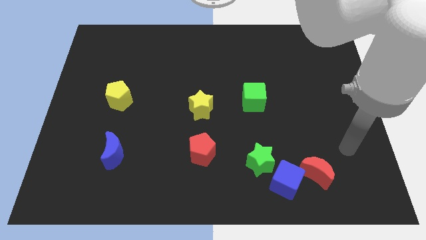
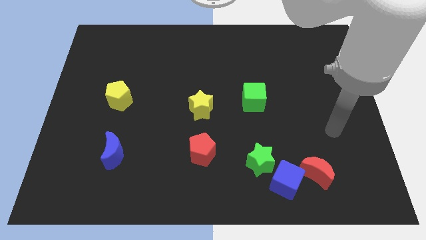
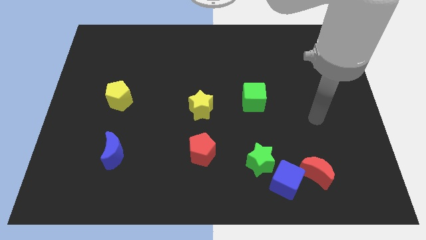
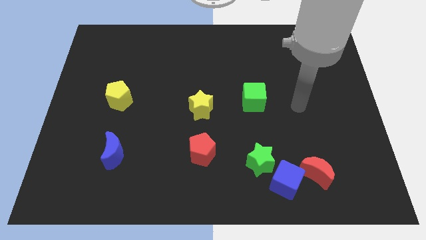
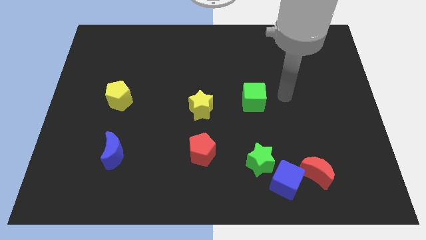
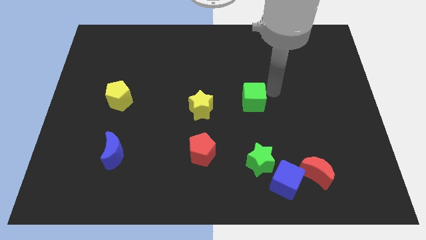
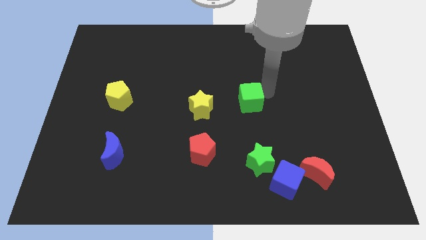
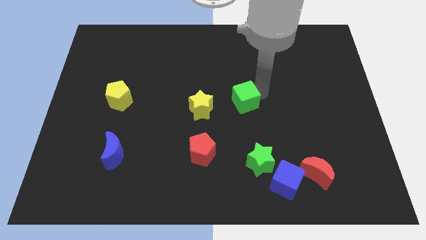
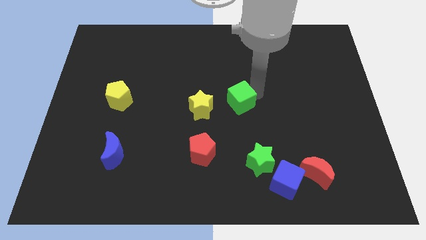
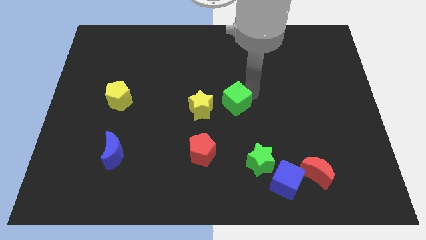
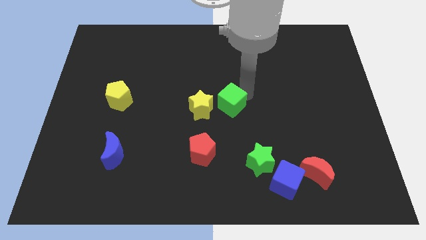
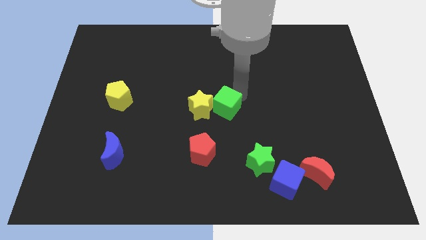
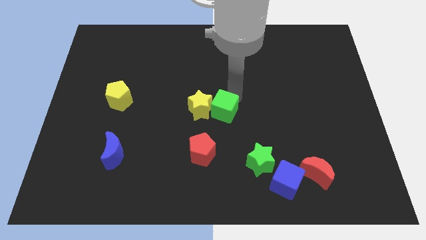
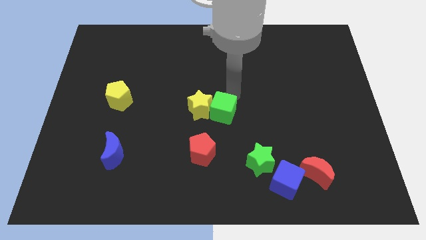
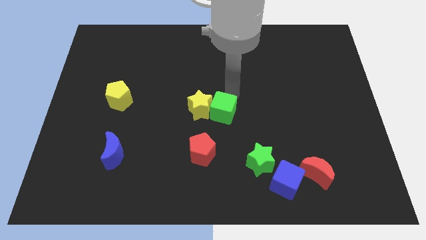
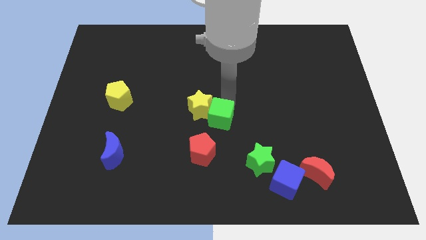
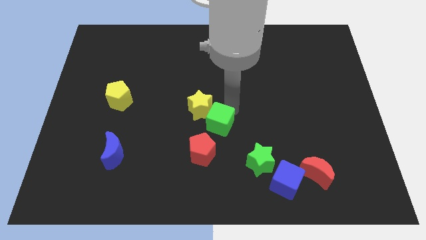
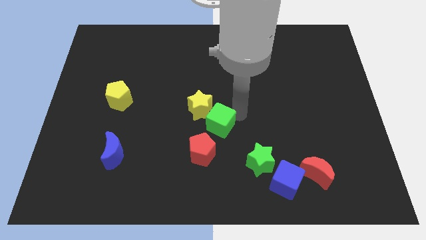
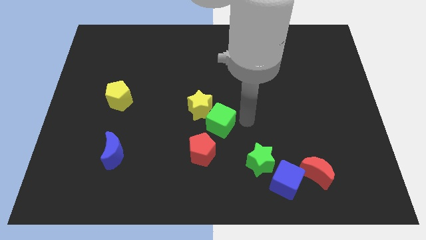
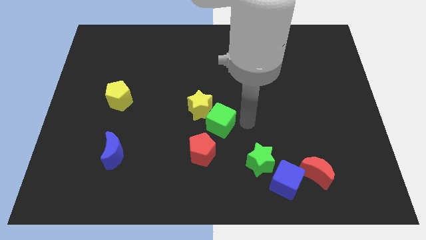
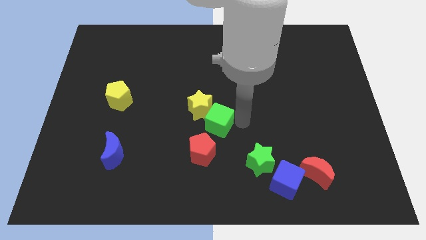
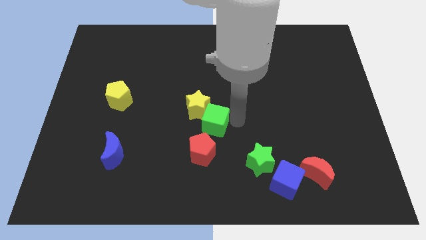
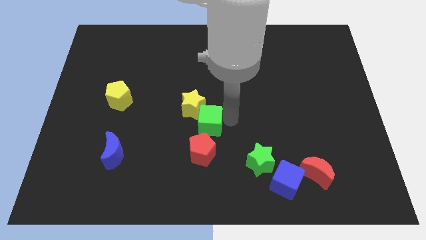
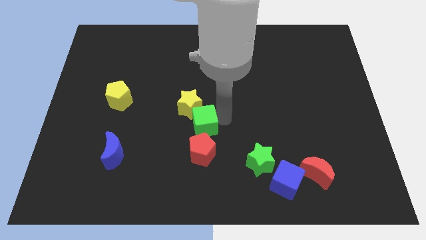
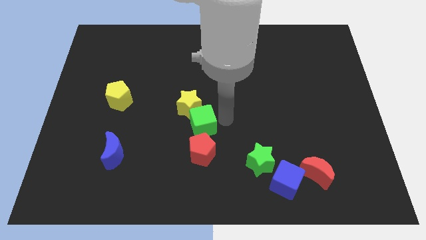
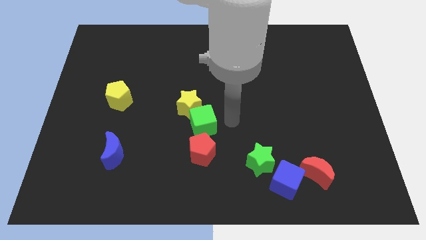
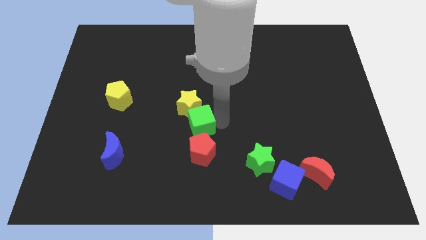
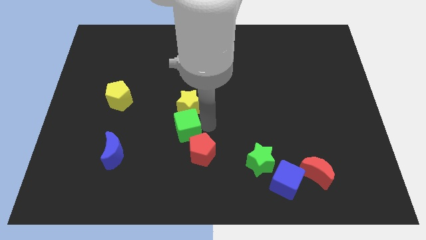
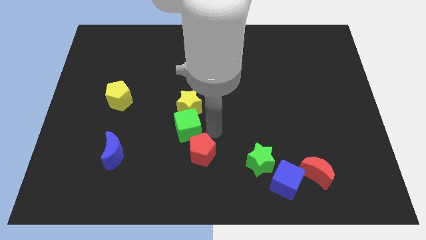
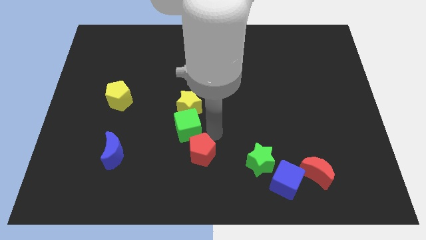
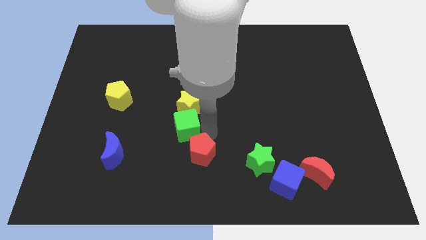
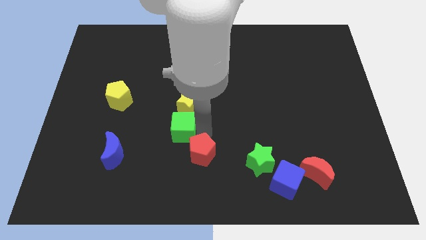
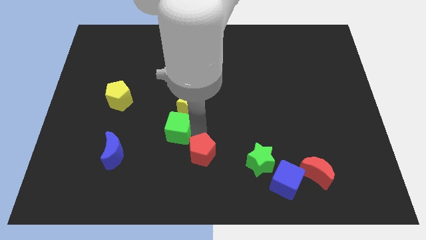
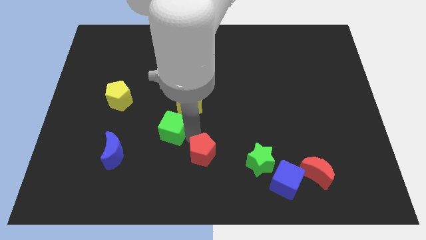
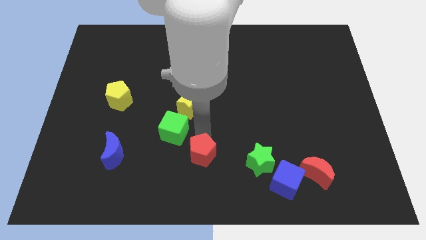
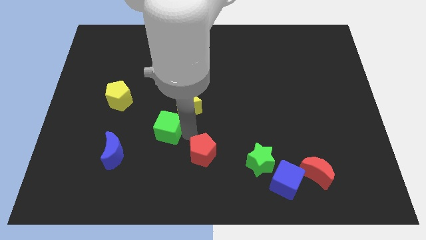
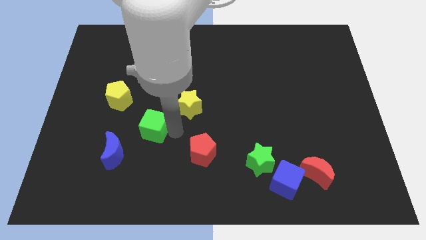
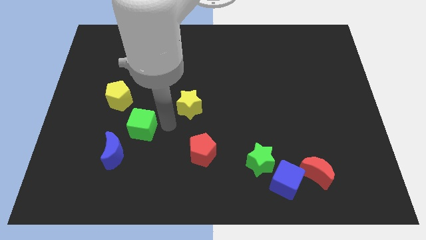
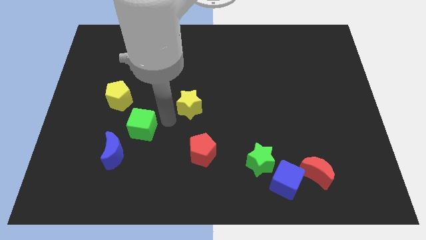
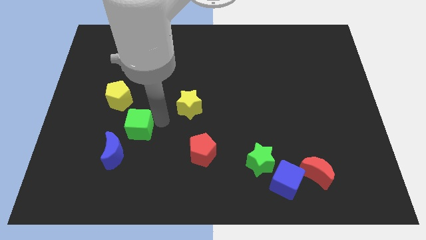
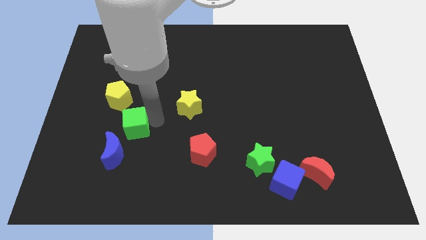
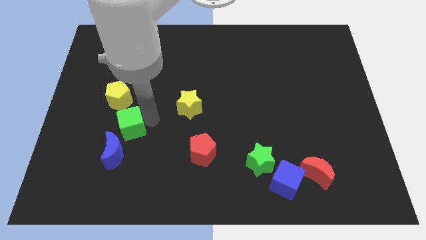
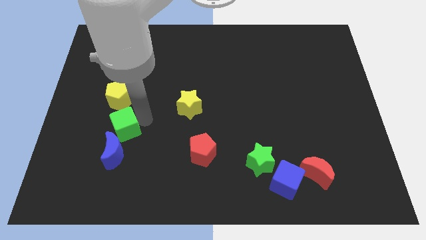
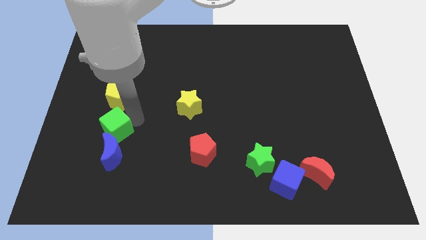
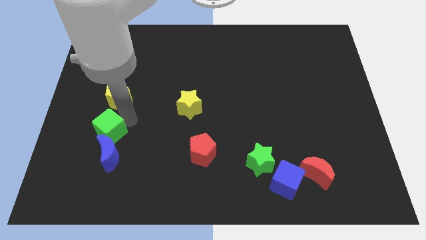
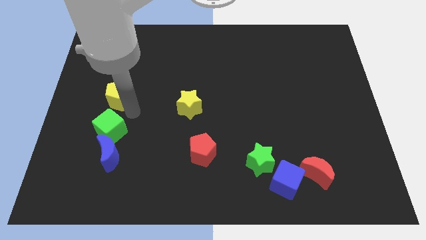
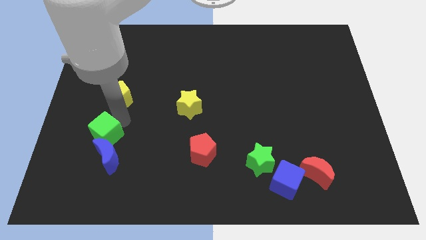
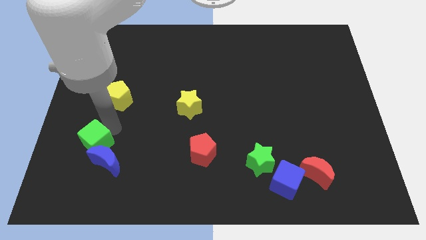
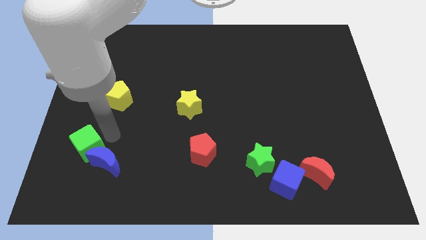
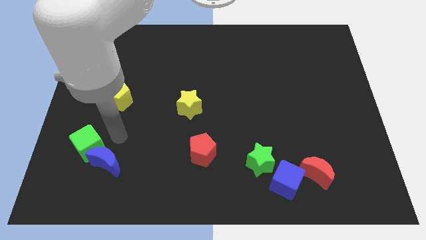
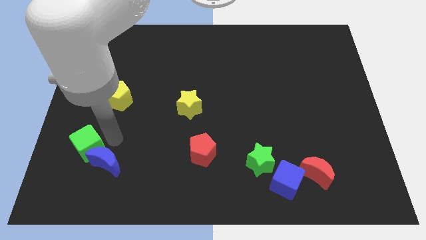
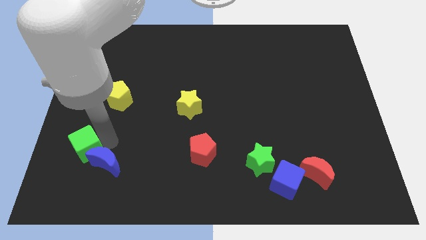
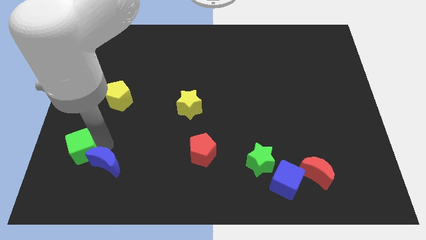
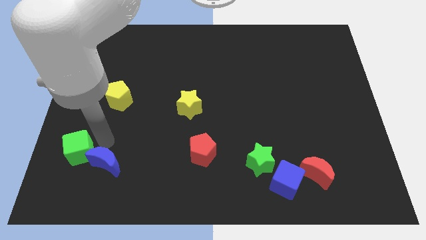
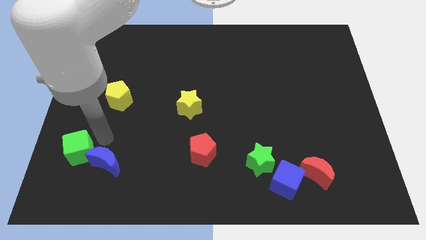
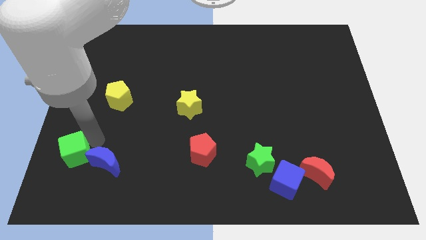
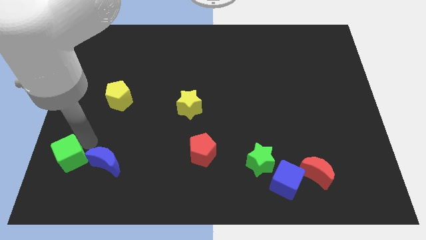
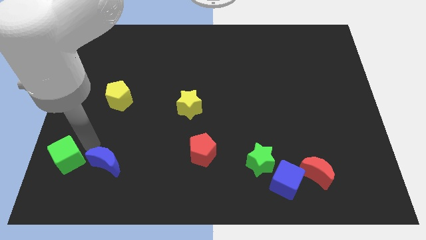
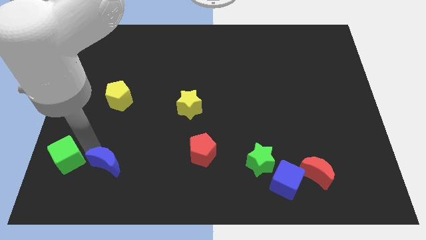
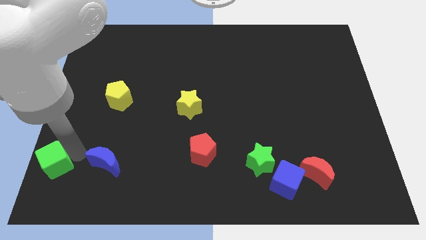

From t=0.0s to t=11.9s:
put the green cube to the bottom left
